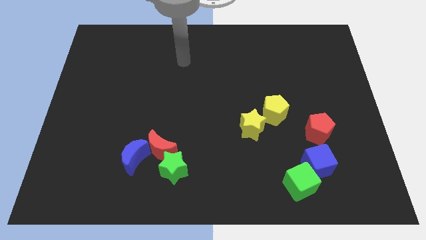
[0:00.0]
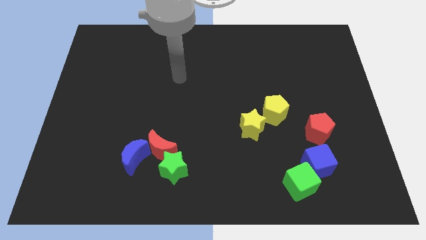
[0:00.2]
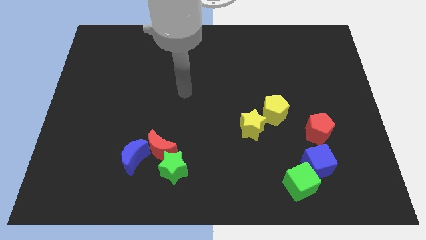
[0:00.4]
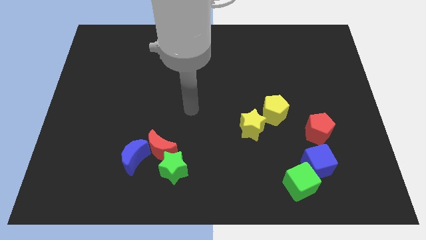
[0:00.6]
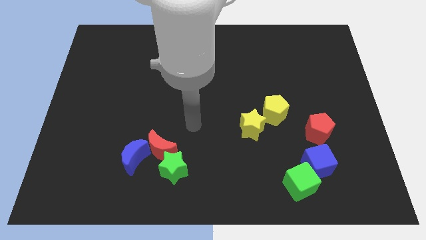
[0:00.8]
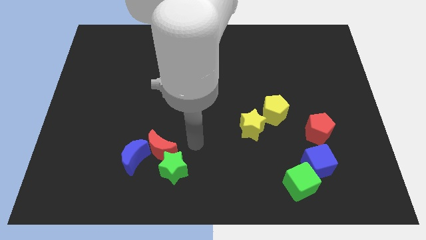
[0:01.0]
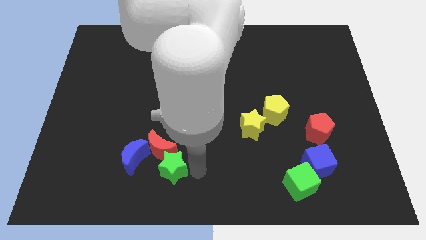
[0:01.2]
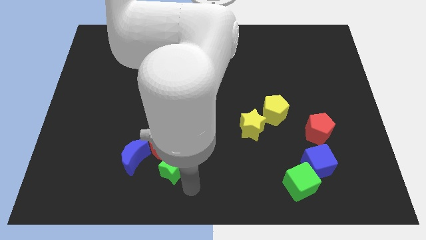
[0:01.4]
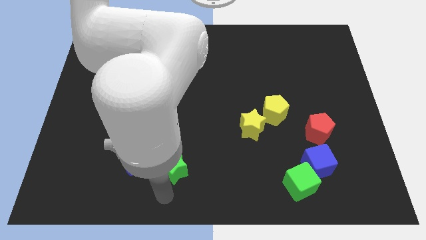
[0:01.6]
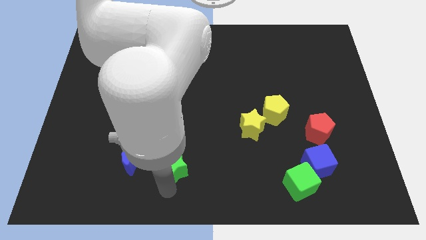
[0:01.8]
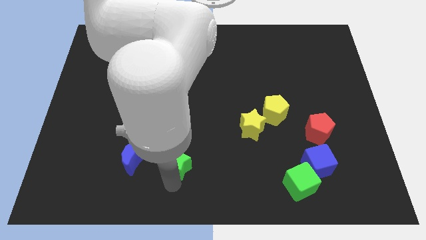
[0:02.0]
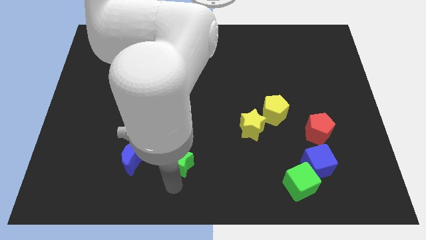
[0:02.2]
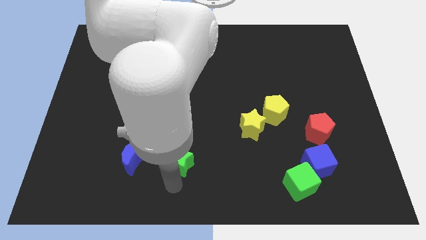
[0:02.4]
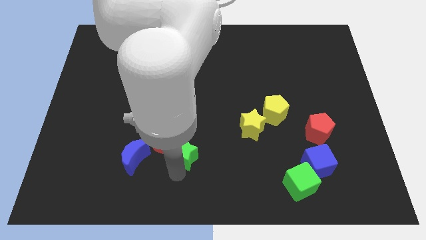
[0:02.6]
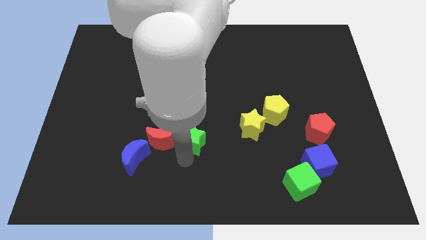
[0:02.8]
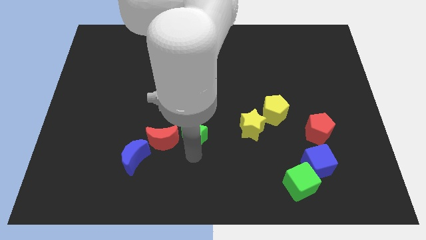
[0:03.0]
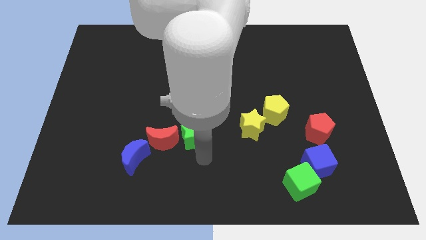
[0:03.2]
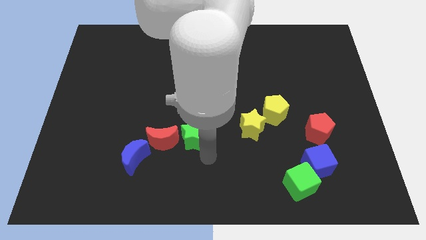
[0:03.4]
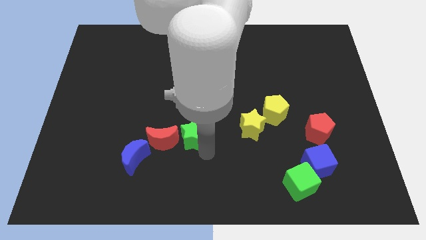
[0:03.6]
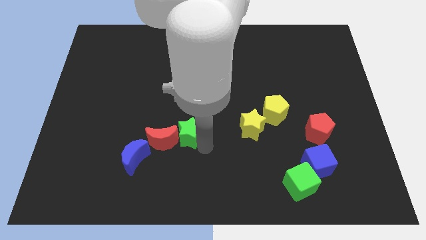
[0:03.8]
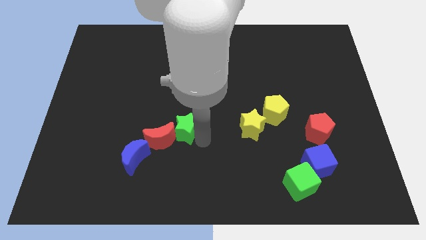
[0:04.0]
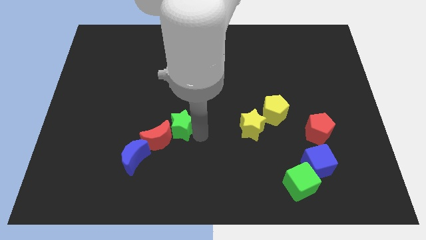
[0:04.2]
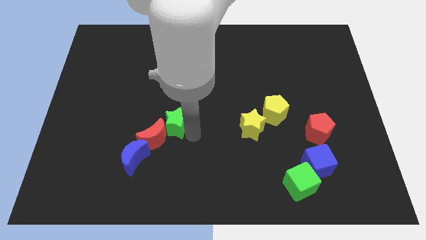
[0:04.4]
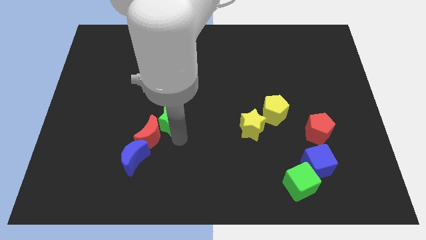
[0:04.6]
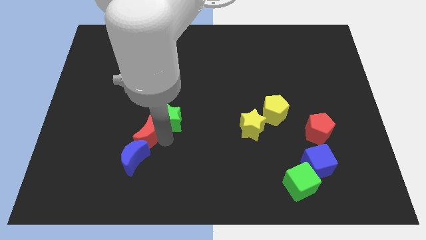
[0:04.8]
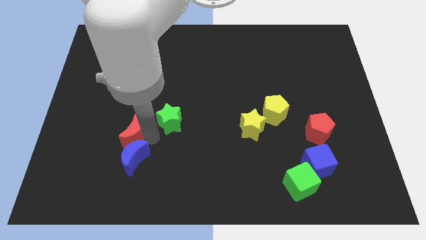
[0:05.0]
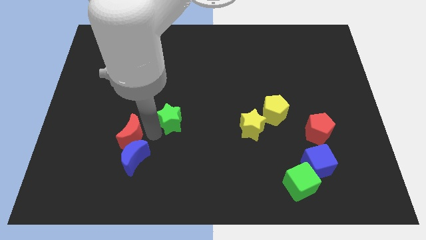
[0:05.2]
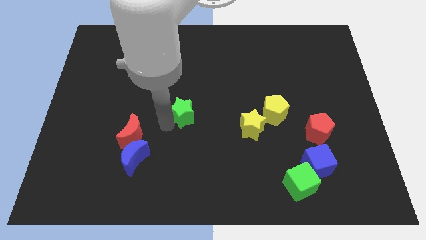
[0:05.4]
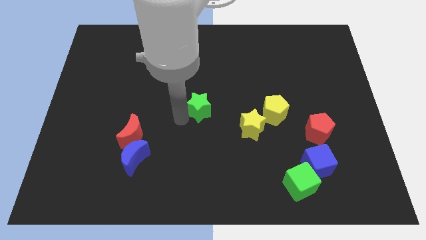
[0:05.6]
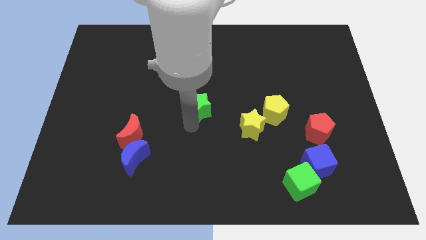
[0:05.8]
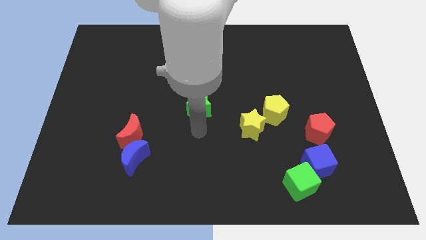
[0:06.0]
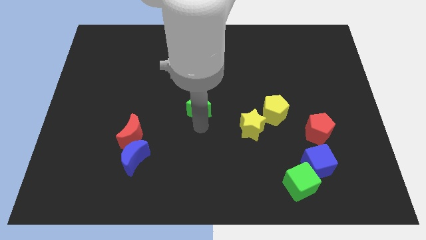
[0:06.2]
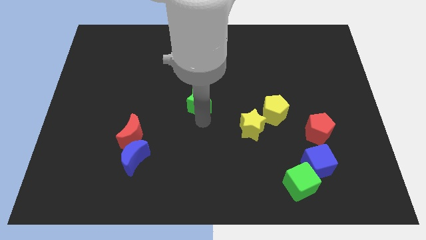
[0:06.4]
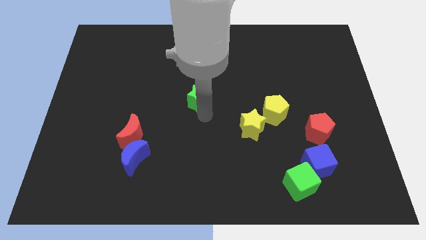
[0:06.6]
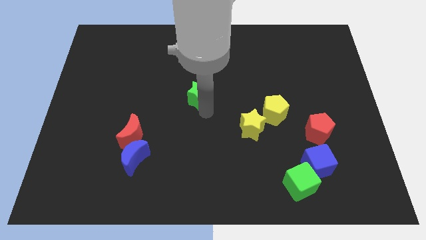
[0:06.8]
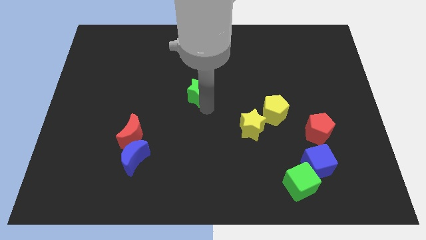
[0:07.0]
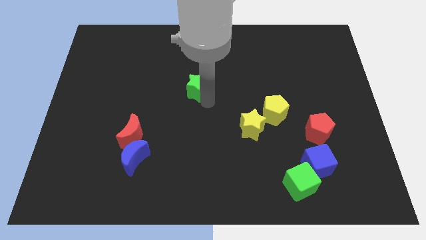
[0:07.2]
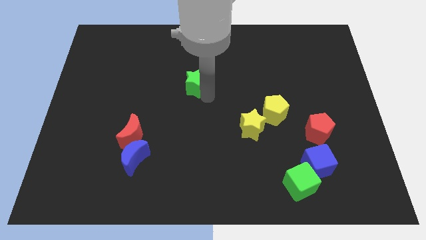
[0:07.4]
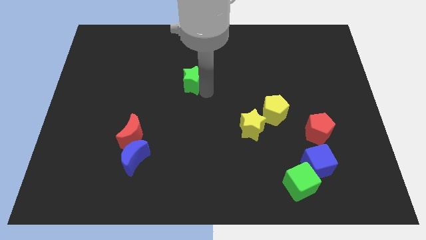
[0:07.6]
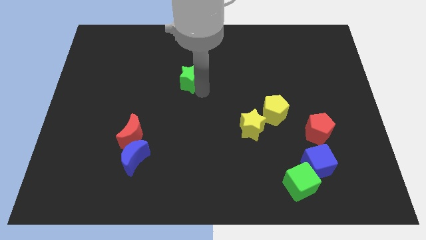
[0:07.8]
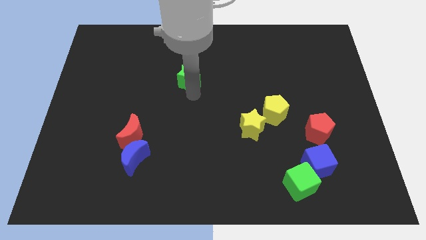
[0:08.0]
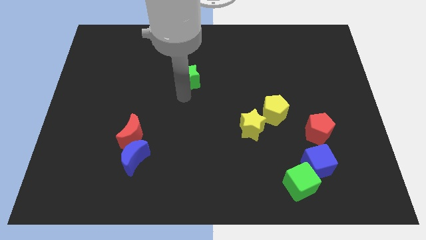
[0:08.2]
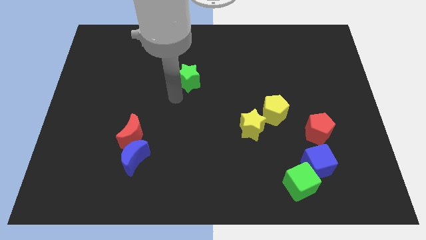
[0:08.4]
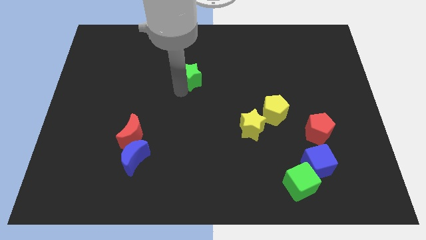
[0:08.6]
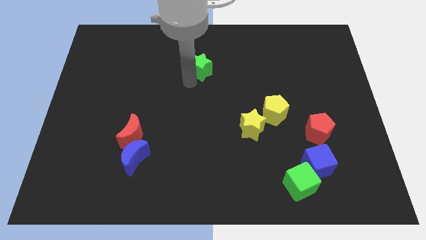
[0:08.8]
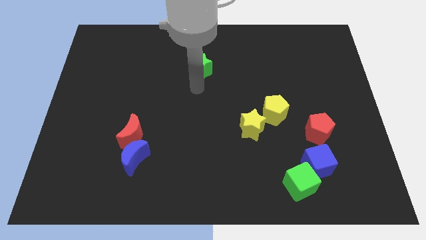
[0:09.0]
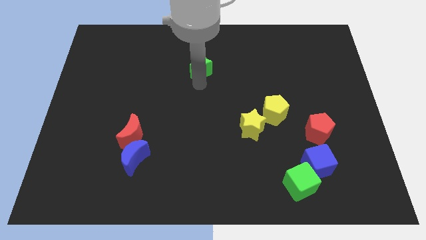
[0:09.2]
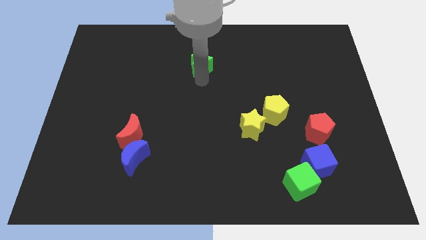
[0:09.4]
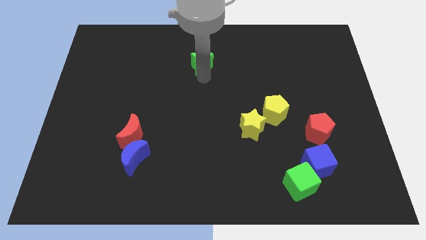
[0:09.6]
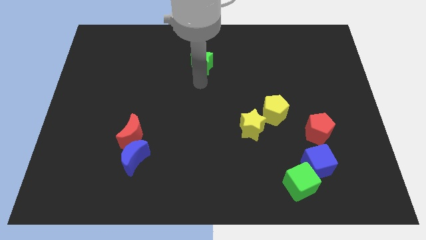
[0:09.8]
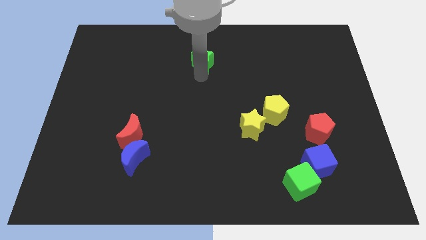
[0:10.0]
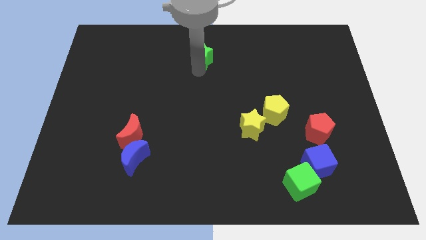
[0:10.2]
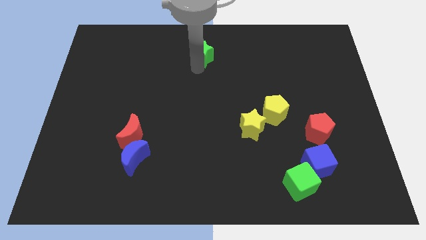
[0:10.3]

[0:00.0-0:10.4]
put the green star to the top

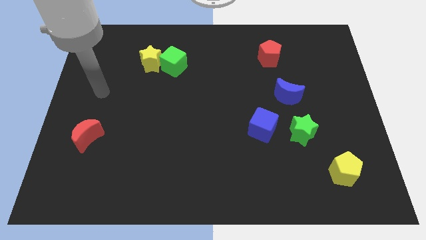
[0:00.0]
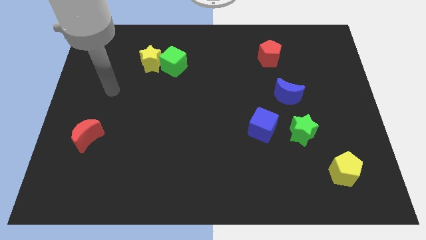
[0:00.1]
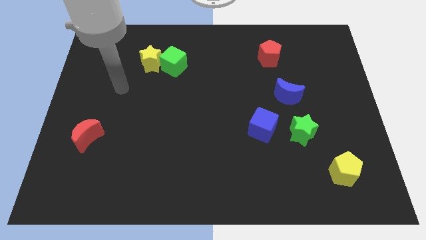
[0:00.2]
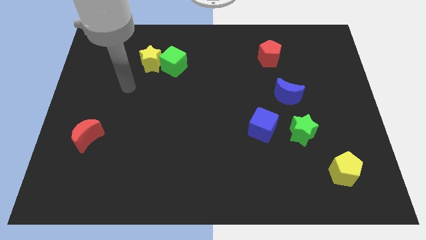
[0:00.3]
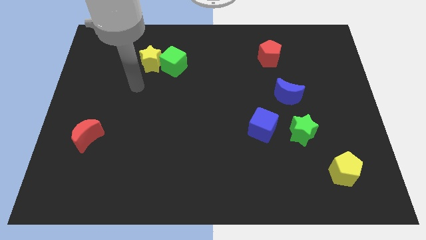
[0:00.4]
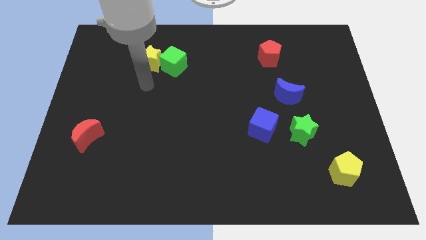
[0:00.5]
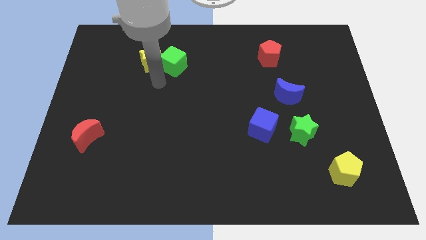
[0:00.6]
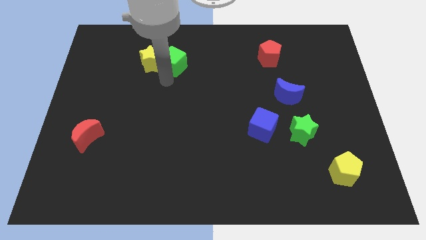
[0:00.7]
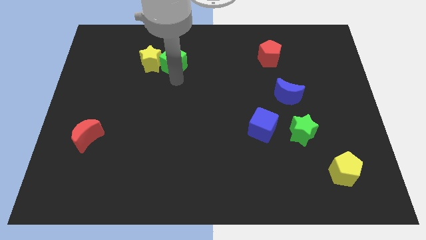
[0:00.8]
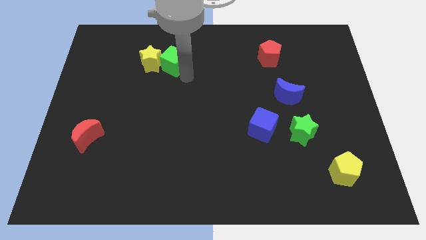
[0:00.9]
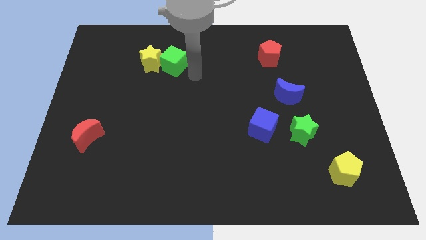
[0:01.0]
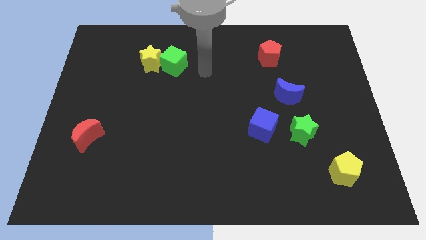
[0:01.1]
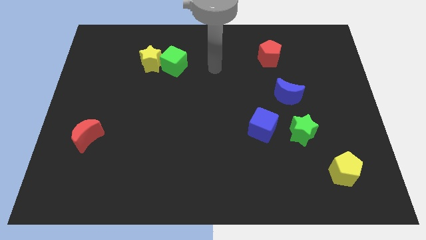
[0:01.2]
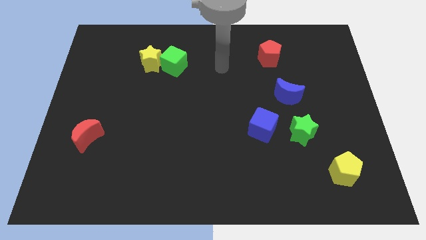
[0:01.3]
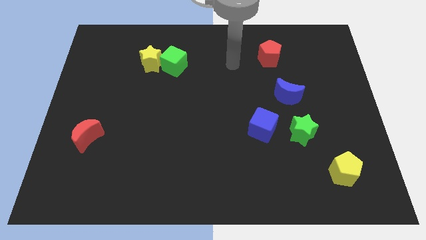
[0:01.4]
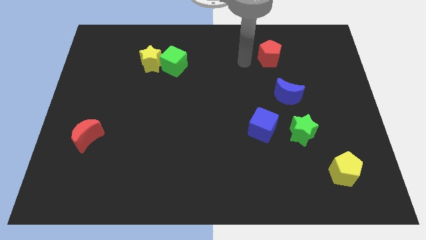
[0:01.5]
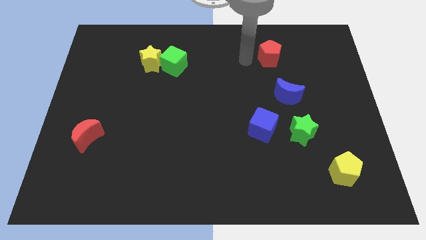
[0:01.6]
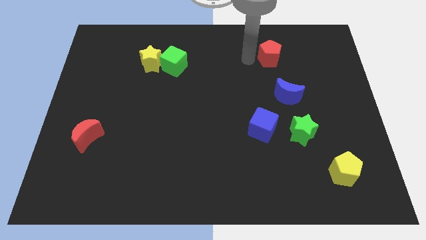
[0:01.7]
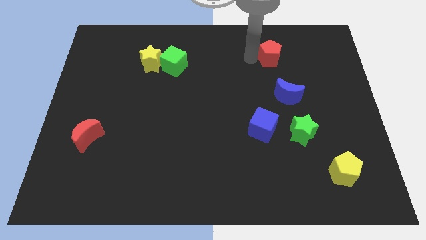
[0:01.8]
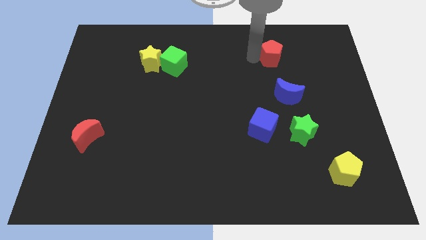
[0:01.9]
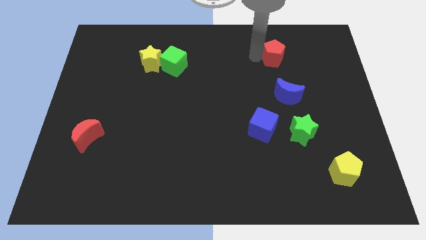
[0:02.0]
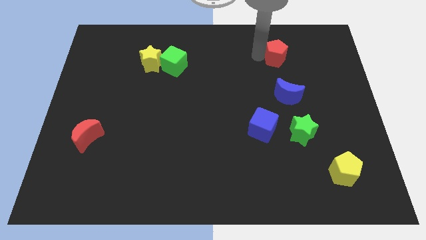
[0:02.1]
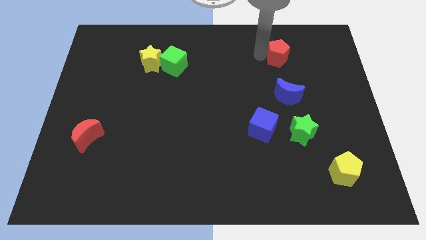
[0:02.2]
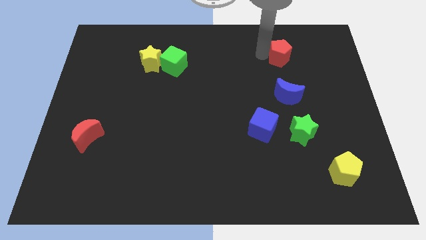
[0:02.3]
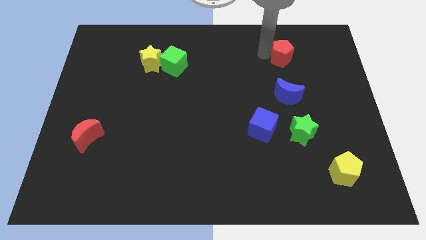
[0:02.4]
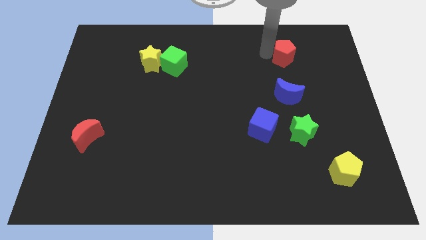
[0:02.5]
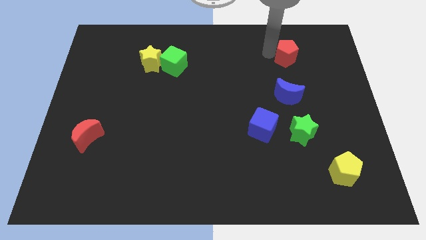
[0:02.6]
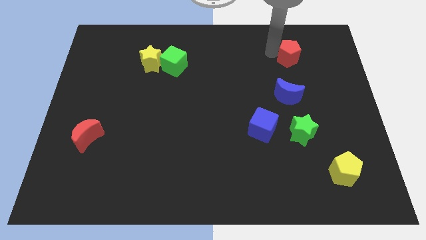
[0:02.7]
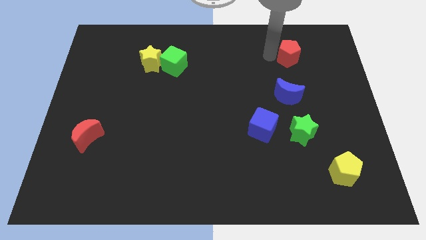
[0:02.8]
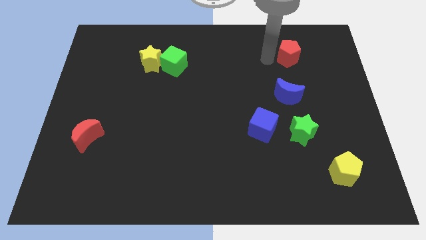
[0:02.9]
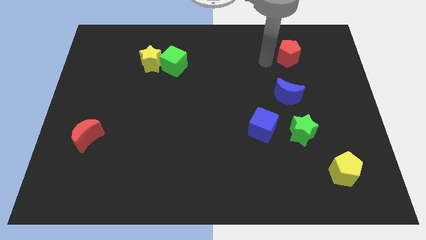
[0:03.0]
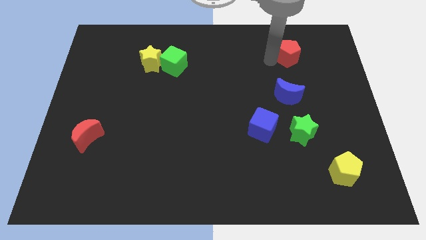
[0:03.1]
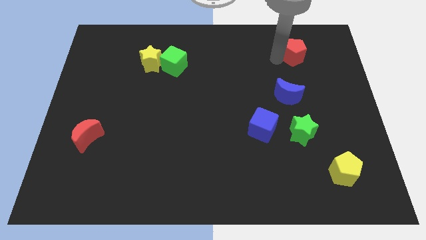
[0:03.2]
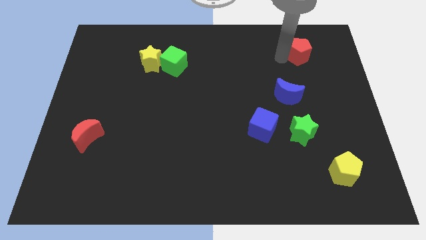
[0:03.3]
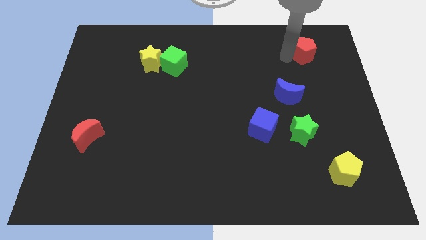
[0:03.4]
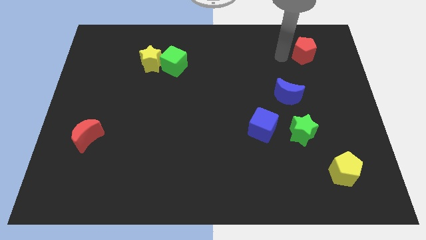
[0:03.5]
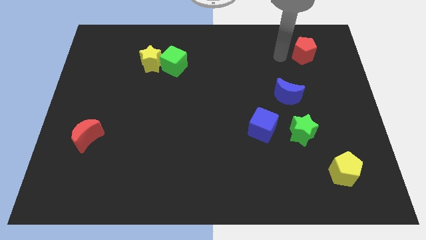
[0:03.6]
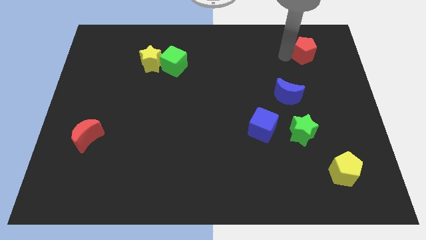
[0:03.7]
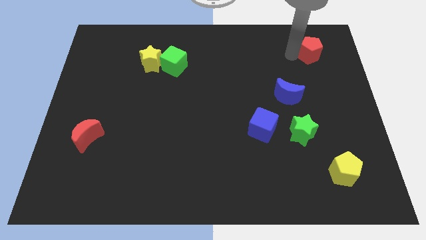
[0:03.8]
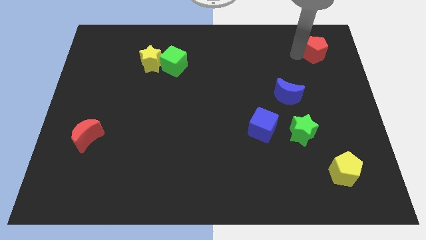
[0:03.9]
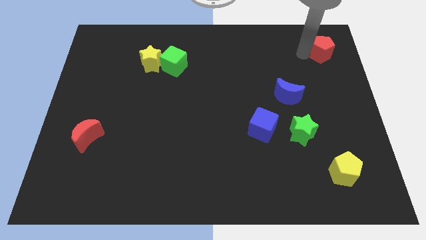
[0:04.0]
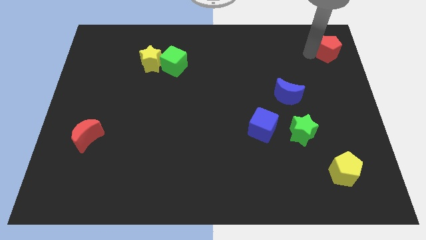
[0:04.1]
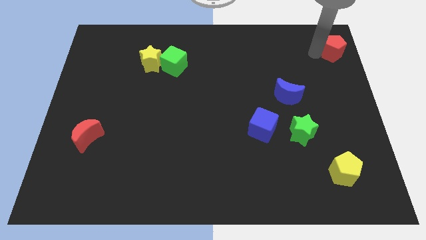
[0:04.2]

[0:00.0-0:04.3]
put the red pentagon to the upper right corner
